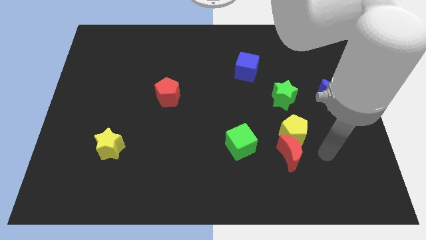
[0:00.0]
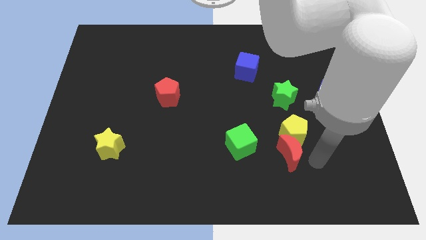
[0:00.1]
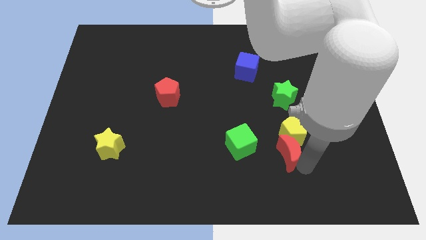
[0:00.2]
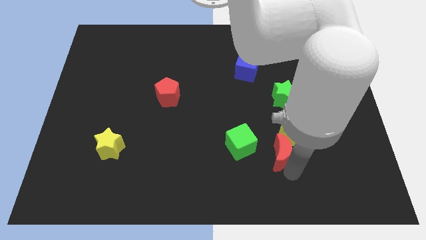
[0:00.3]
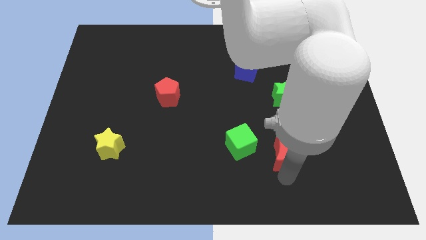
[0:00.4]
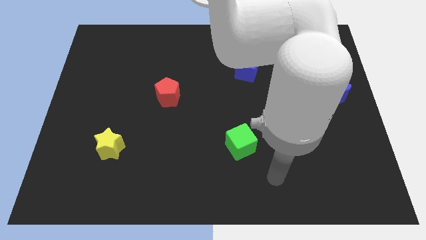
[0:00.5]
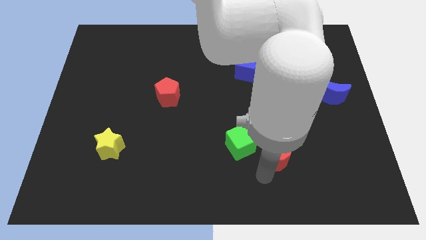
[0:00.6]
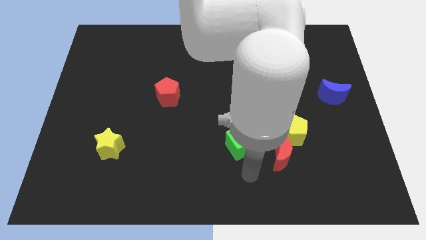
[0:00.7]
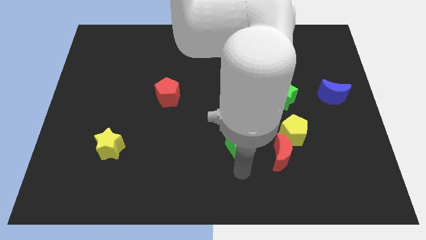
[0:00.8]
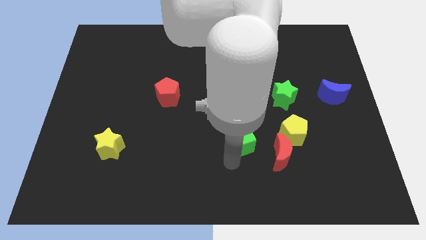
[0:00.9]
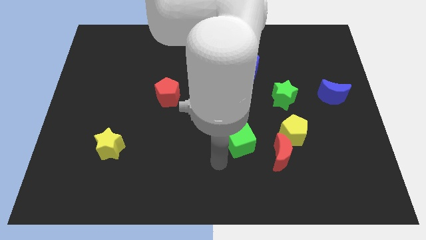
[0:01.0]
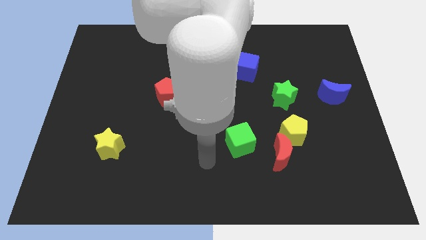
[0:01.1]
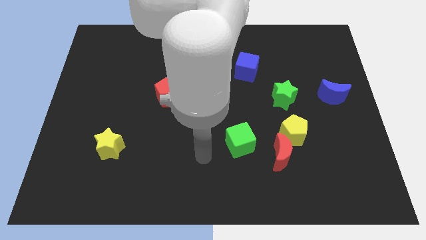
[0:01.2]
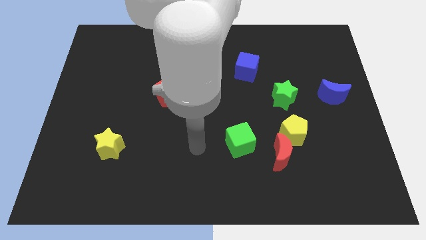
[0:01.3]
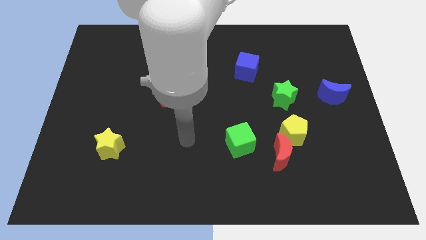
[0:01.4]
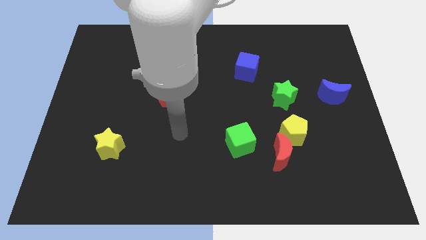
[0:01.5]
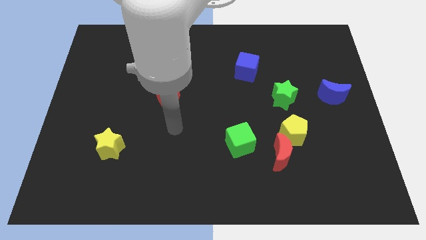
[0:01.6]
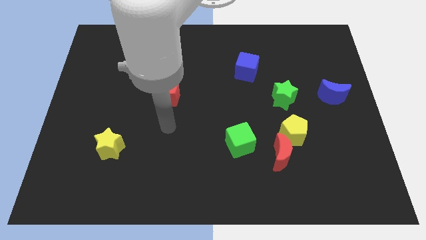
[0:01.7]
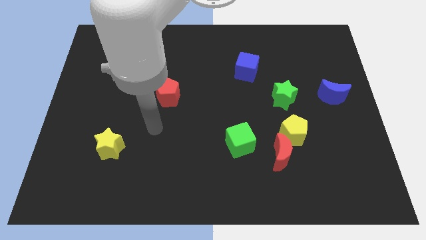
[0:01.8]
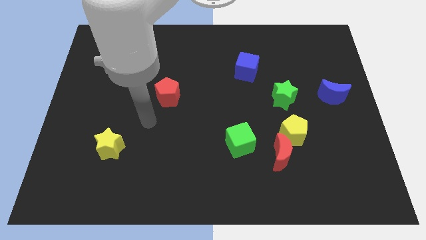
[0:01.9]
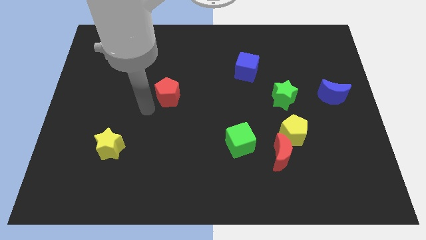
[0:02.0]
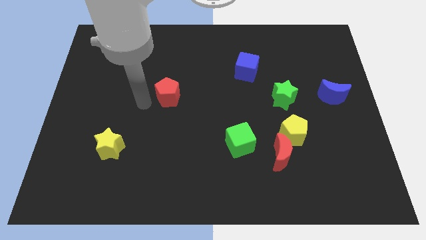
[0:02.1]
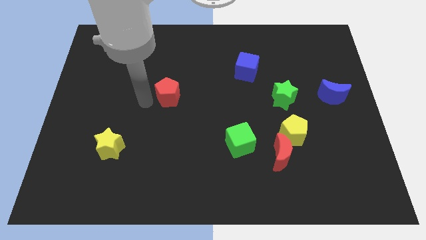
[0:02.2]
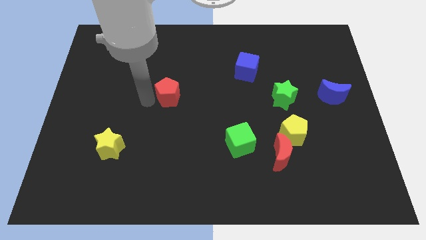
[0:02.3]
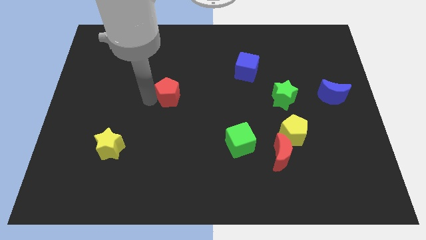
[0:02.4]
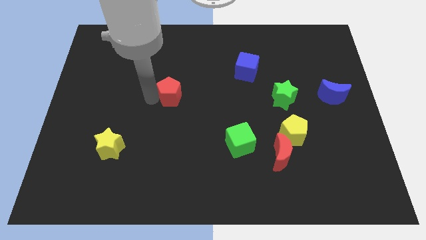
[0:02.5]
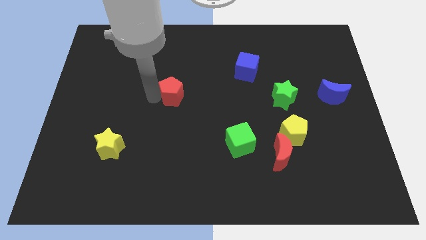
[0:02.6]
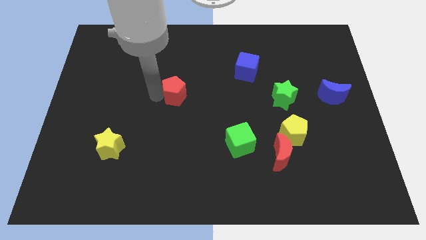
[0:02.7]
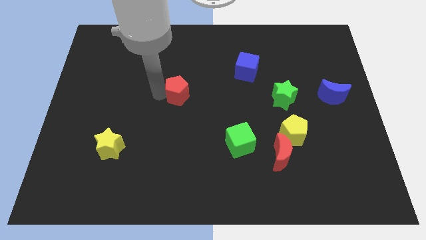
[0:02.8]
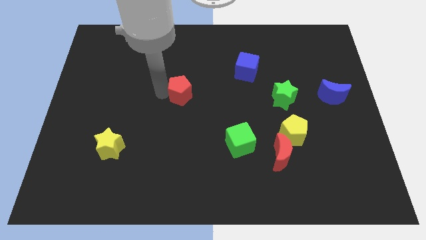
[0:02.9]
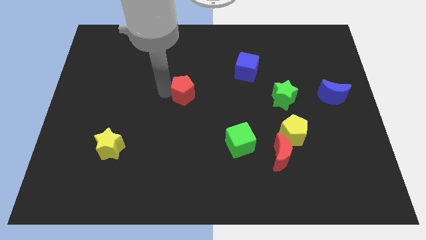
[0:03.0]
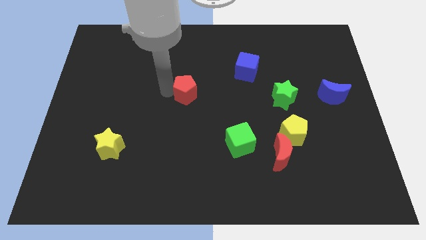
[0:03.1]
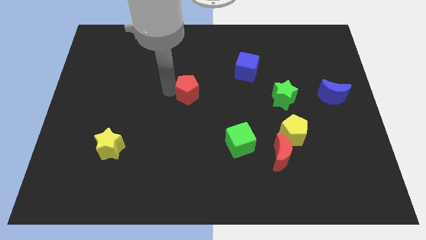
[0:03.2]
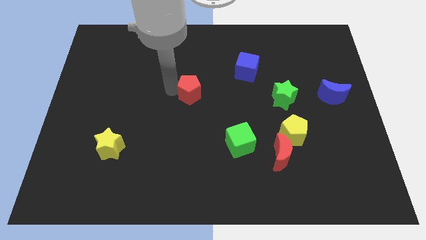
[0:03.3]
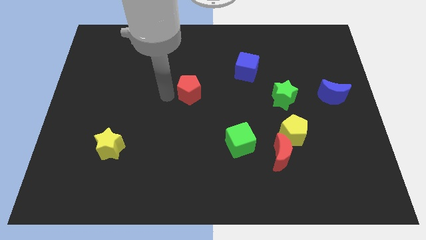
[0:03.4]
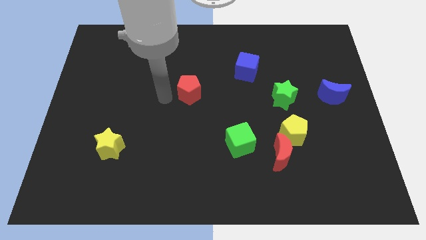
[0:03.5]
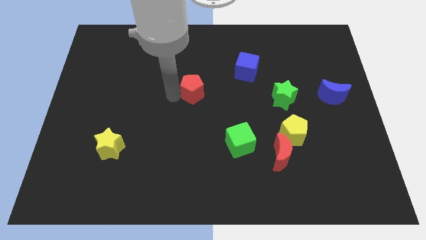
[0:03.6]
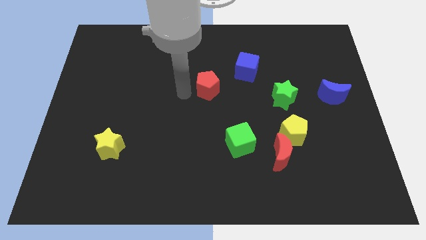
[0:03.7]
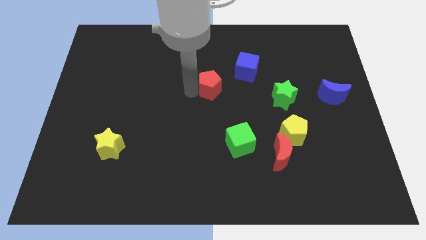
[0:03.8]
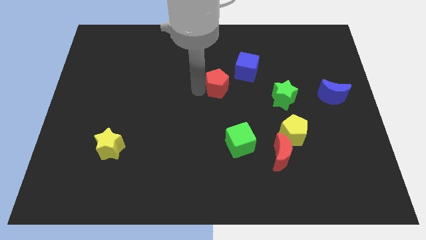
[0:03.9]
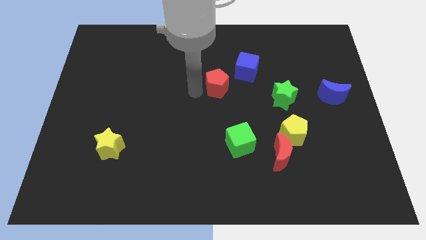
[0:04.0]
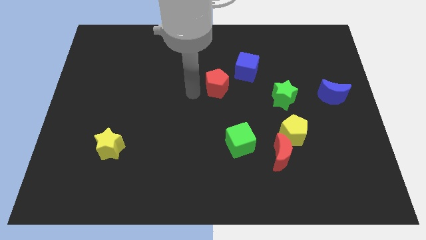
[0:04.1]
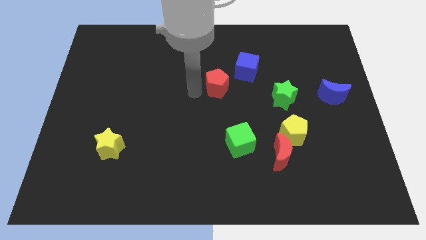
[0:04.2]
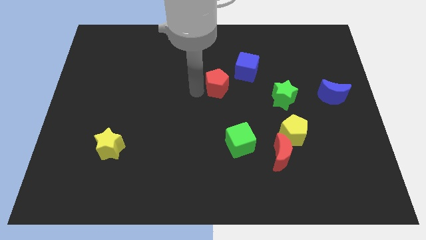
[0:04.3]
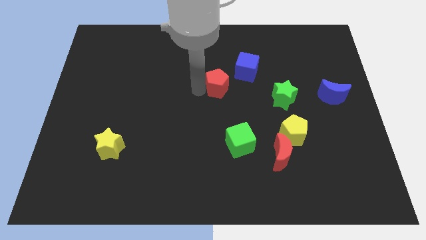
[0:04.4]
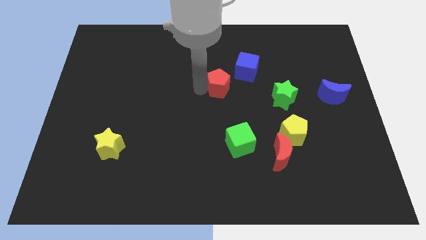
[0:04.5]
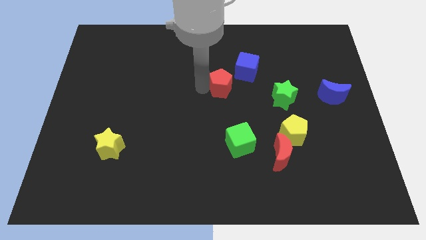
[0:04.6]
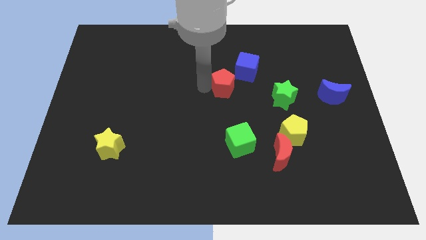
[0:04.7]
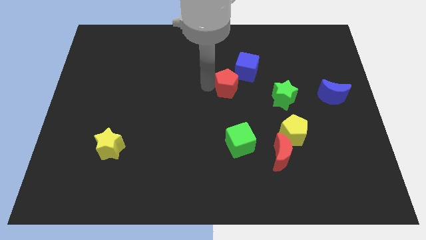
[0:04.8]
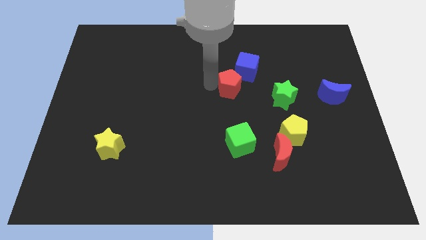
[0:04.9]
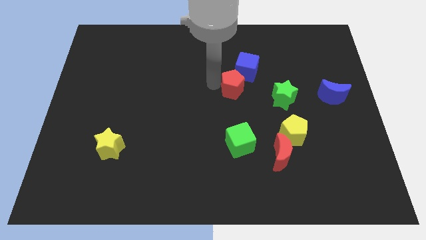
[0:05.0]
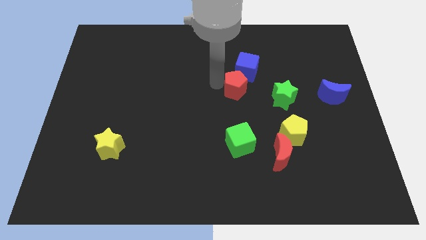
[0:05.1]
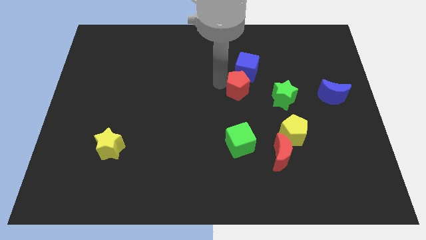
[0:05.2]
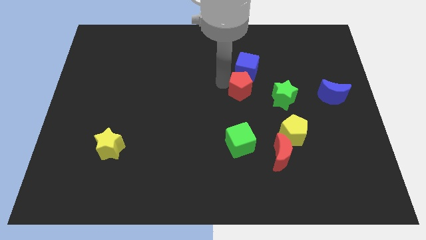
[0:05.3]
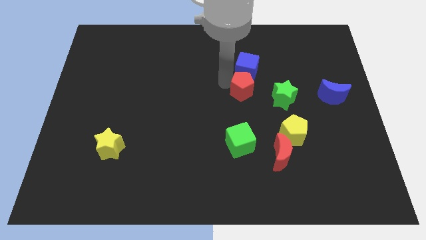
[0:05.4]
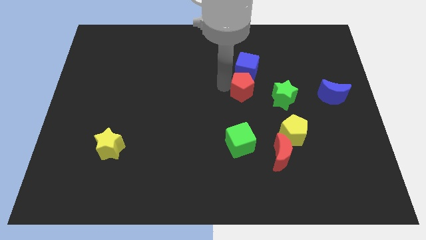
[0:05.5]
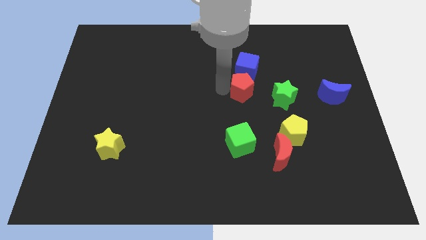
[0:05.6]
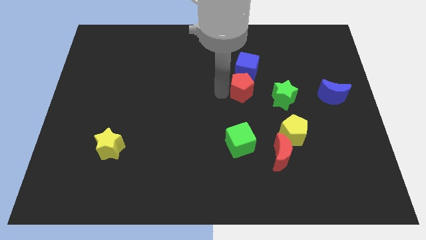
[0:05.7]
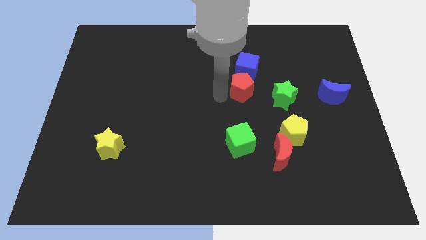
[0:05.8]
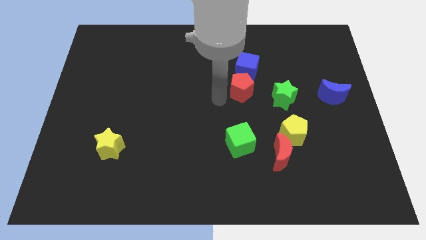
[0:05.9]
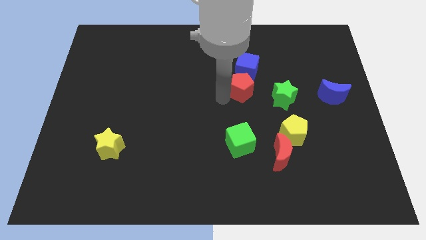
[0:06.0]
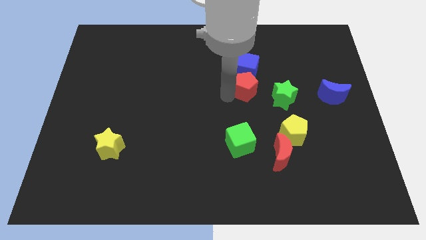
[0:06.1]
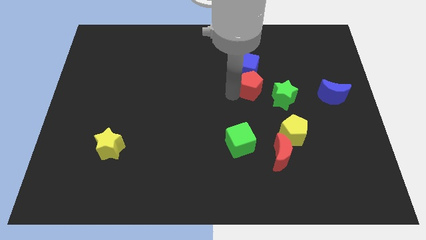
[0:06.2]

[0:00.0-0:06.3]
slide the red pentagon right

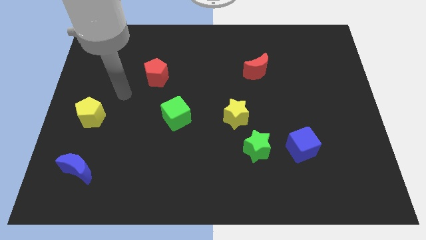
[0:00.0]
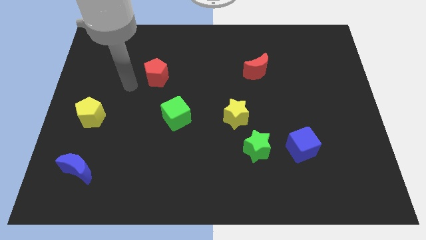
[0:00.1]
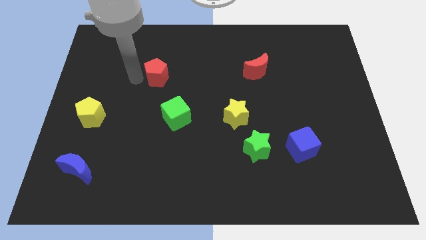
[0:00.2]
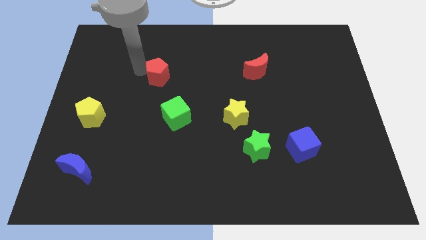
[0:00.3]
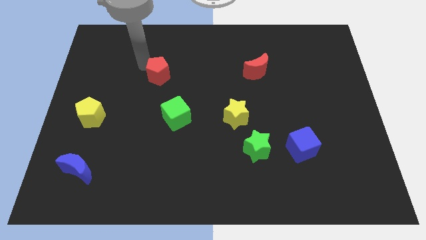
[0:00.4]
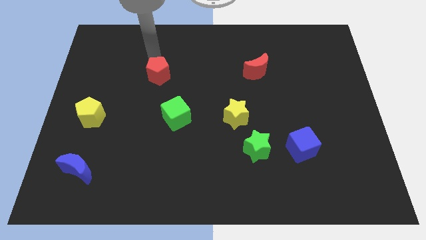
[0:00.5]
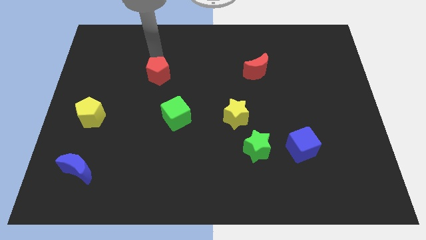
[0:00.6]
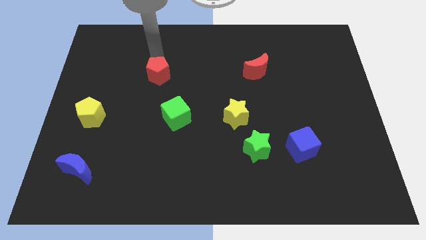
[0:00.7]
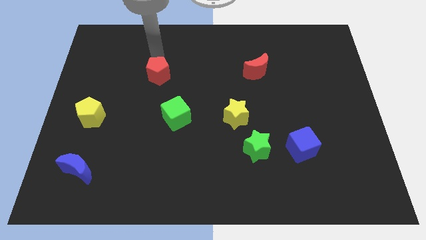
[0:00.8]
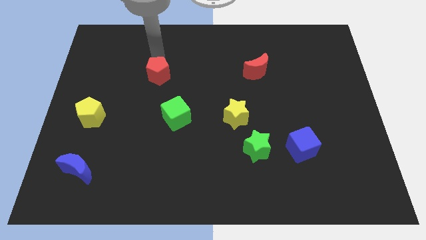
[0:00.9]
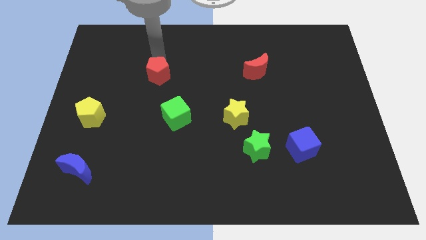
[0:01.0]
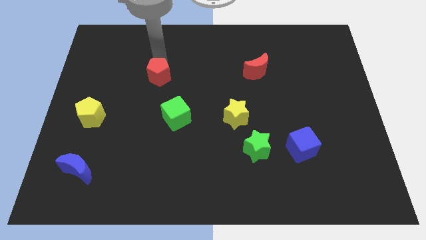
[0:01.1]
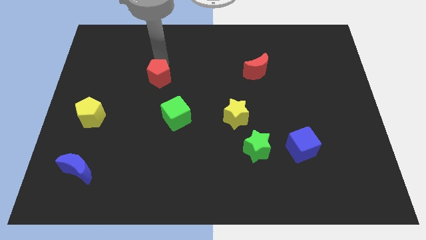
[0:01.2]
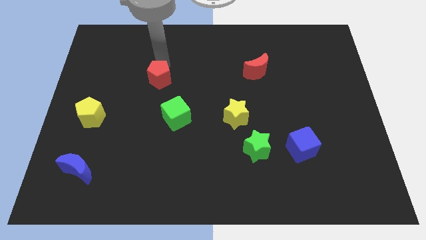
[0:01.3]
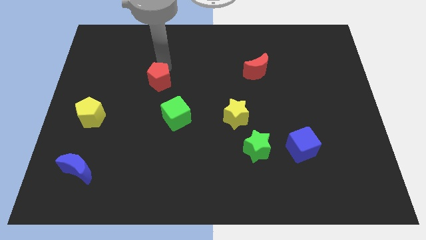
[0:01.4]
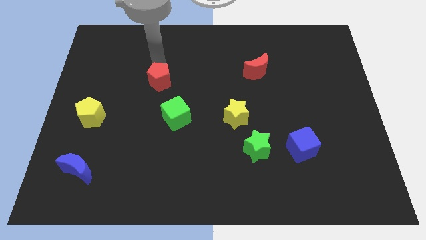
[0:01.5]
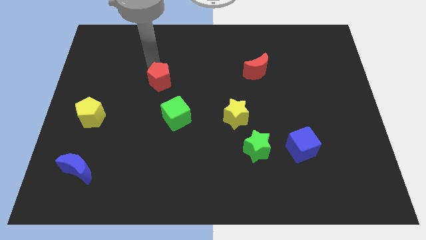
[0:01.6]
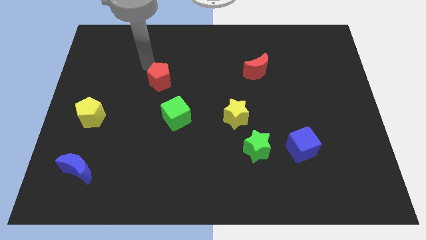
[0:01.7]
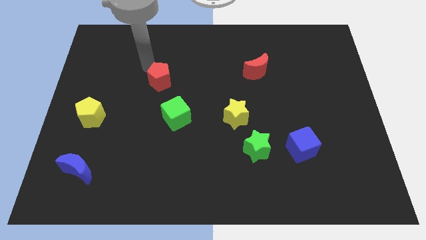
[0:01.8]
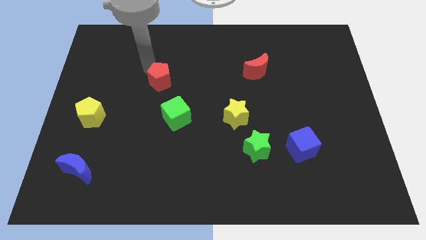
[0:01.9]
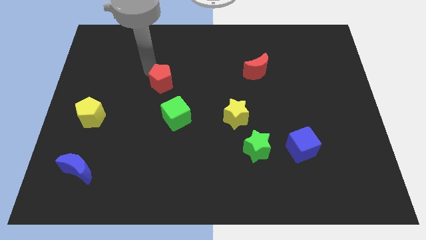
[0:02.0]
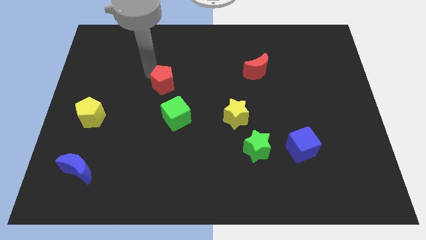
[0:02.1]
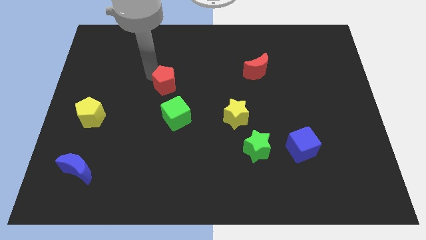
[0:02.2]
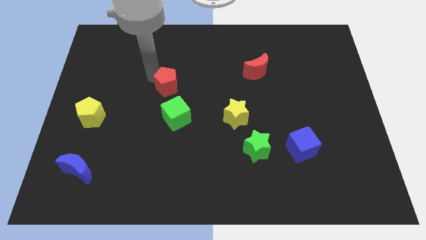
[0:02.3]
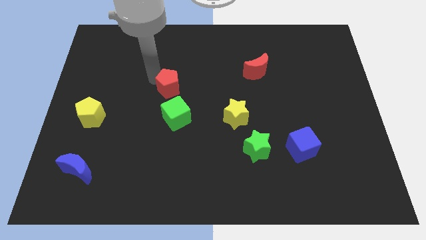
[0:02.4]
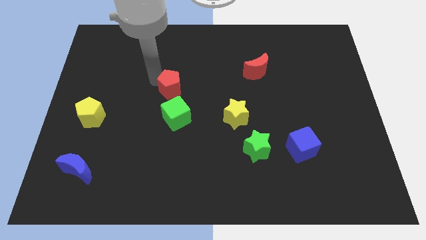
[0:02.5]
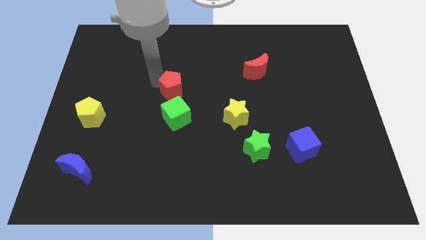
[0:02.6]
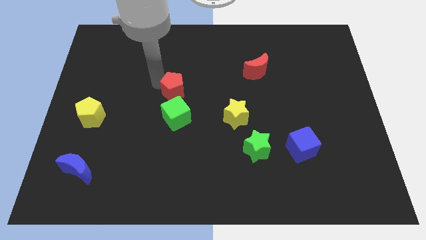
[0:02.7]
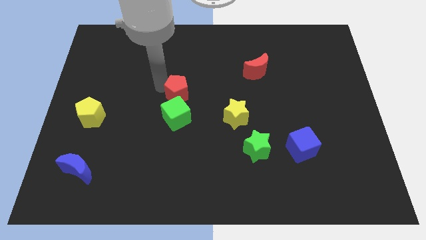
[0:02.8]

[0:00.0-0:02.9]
slightly slide the red pentagon downwards and right
